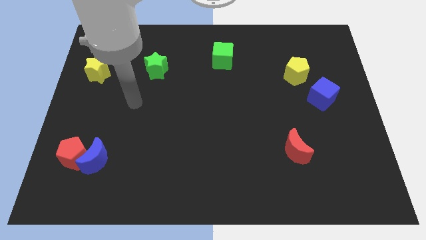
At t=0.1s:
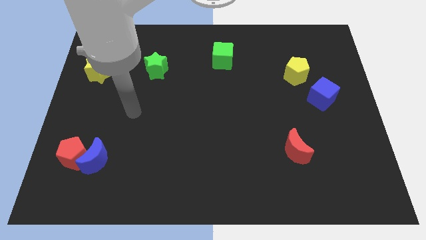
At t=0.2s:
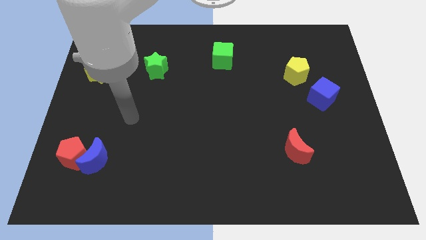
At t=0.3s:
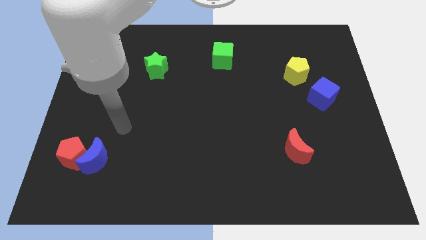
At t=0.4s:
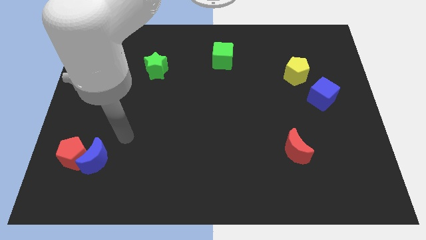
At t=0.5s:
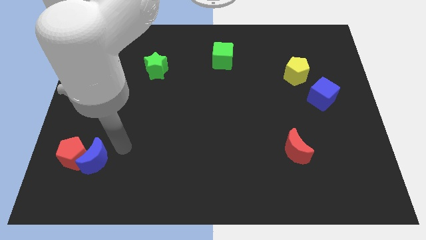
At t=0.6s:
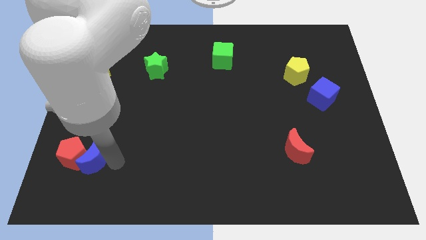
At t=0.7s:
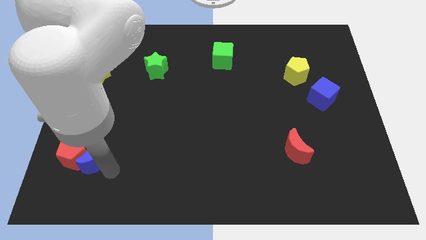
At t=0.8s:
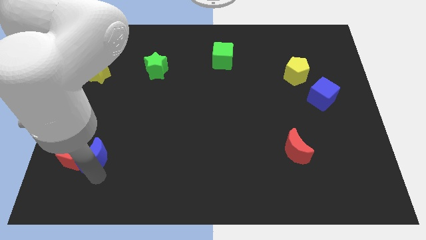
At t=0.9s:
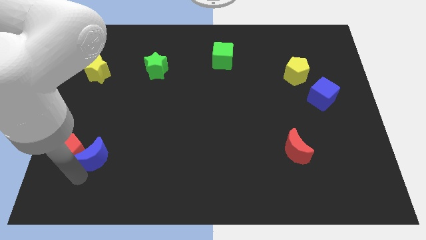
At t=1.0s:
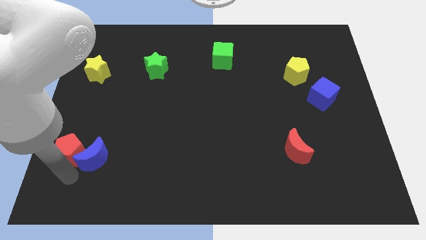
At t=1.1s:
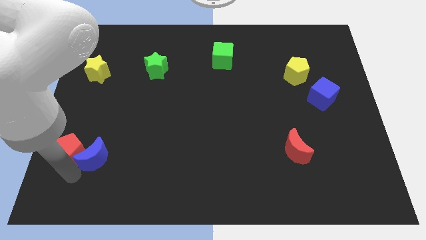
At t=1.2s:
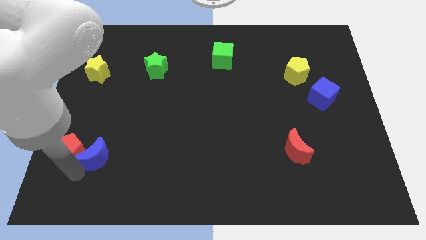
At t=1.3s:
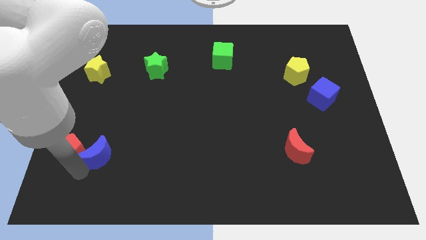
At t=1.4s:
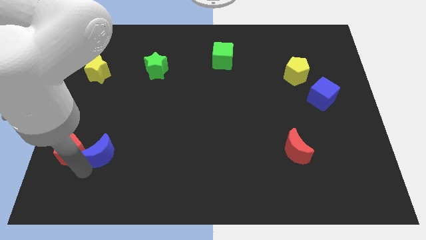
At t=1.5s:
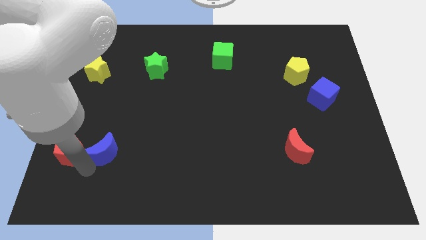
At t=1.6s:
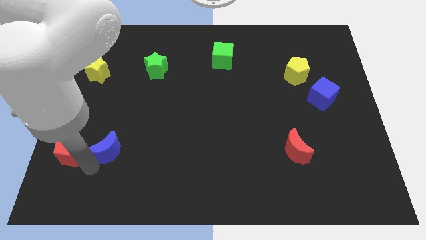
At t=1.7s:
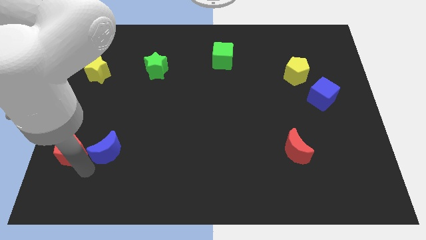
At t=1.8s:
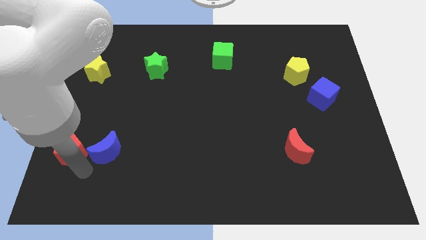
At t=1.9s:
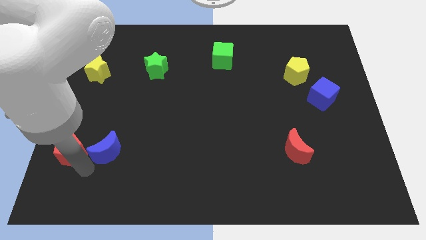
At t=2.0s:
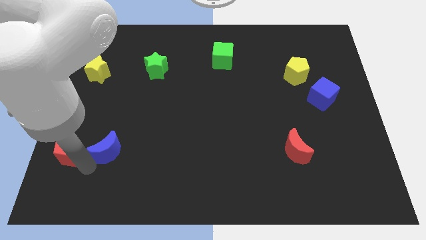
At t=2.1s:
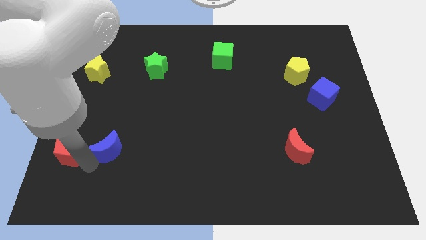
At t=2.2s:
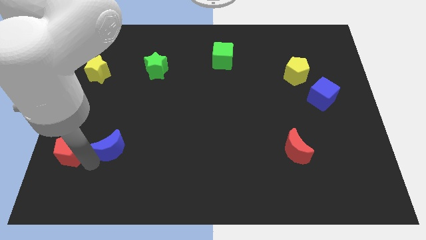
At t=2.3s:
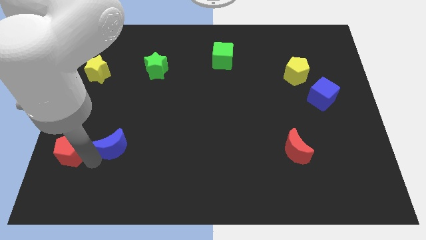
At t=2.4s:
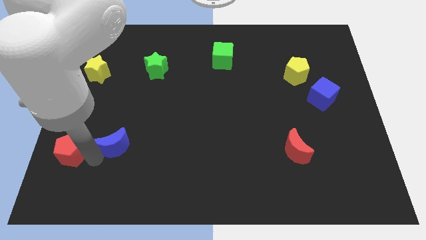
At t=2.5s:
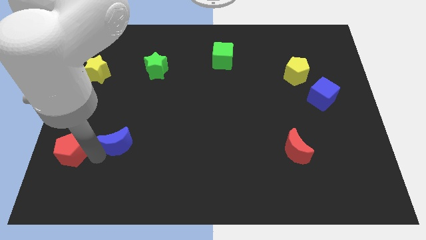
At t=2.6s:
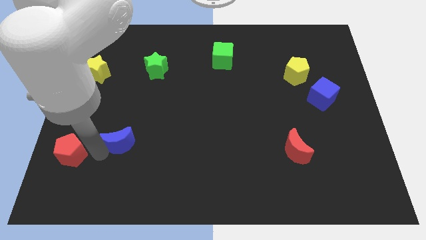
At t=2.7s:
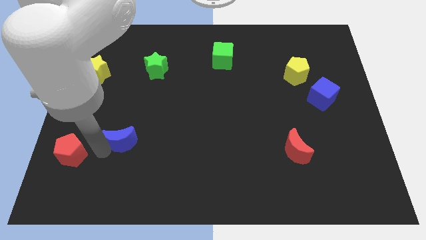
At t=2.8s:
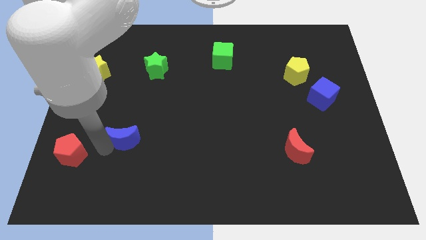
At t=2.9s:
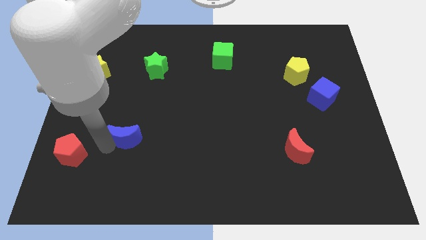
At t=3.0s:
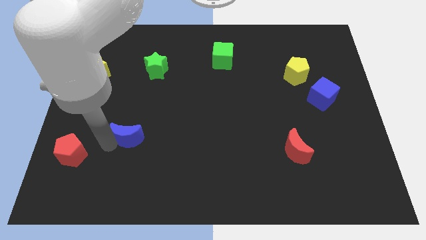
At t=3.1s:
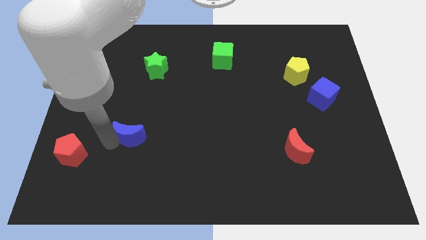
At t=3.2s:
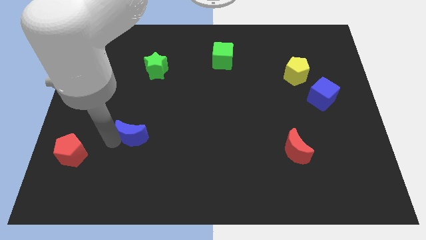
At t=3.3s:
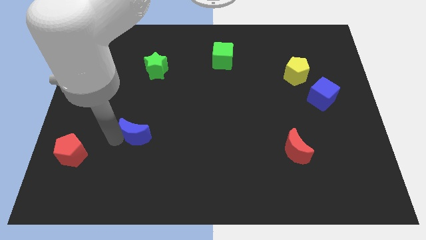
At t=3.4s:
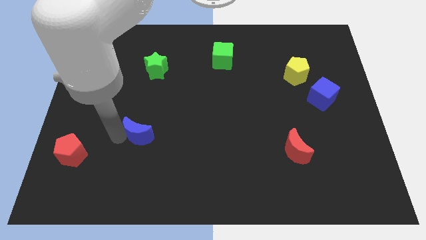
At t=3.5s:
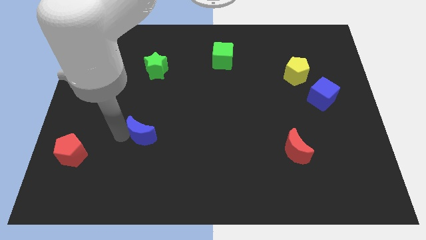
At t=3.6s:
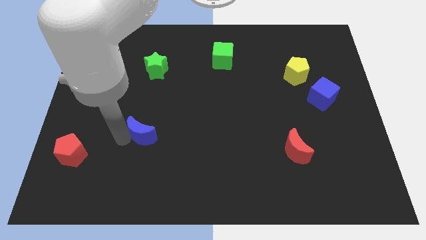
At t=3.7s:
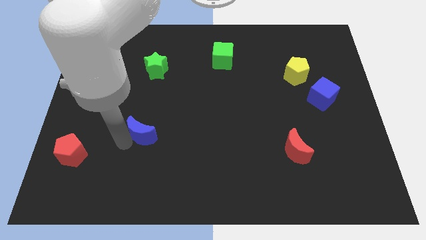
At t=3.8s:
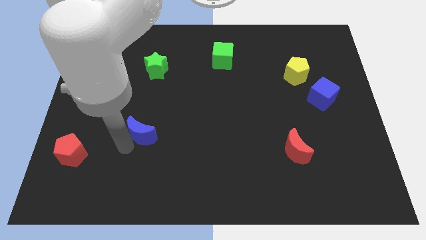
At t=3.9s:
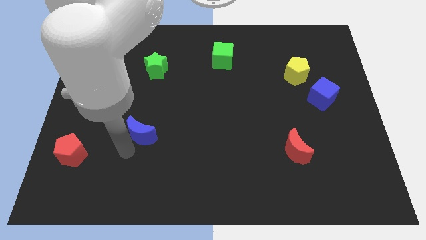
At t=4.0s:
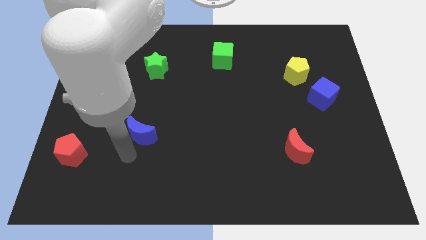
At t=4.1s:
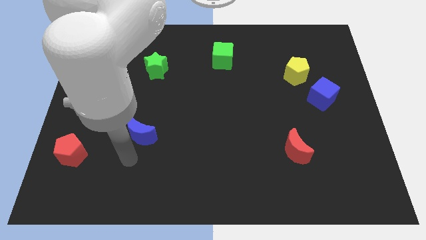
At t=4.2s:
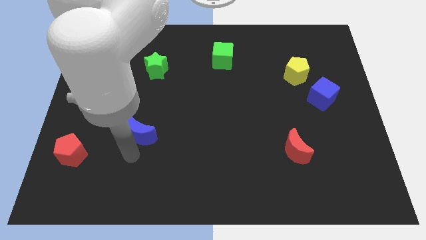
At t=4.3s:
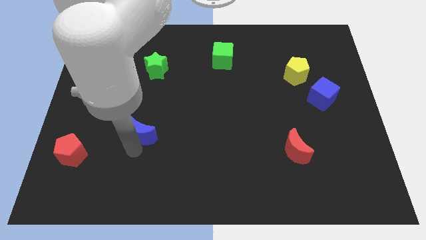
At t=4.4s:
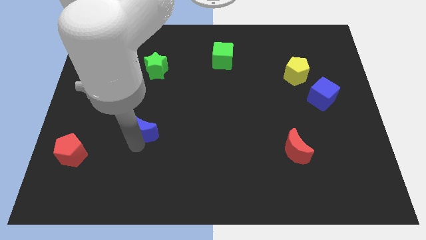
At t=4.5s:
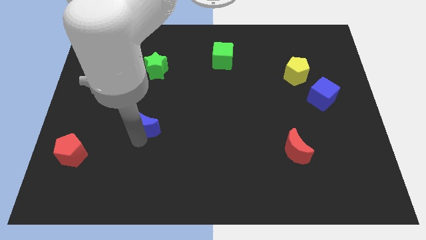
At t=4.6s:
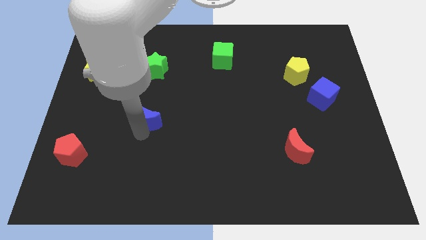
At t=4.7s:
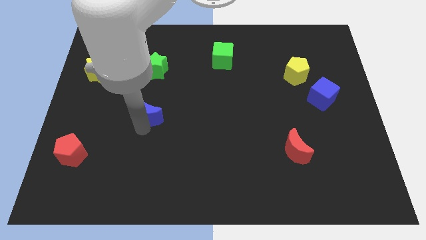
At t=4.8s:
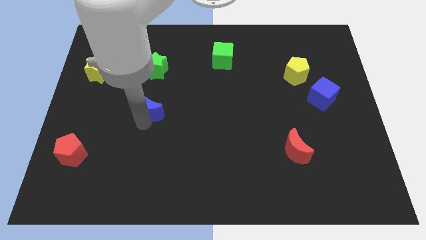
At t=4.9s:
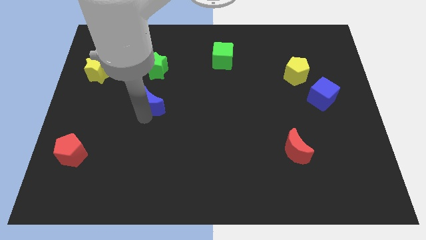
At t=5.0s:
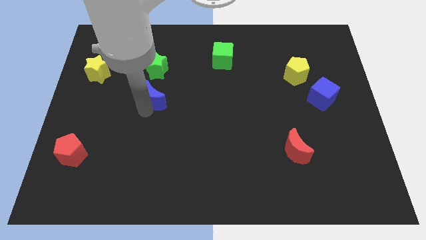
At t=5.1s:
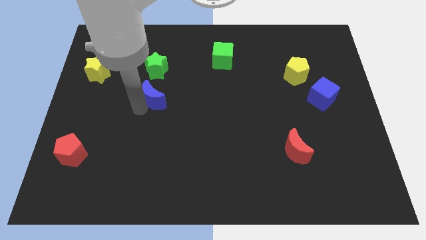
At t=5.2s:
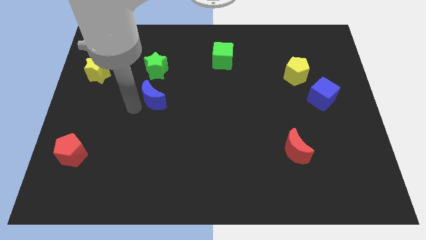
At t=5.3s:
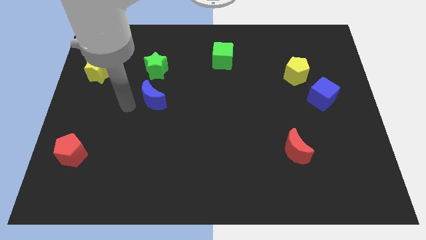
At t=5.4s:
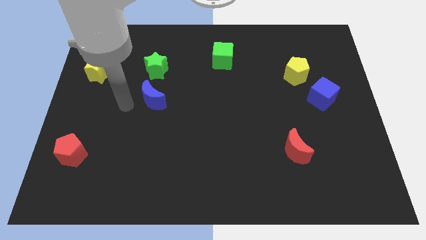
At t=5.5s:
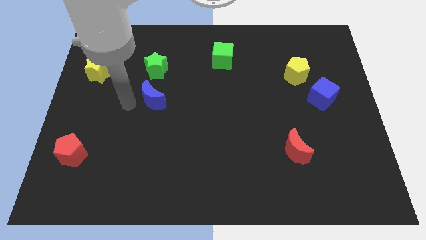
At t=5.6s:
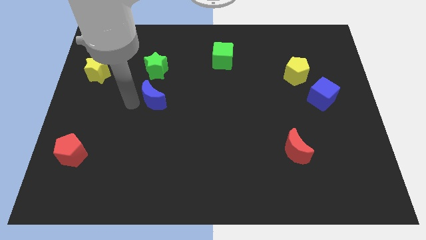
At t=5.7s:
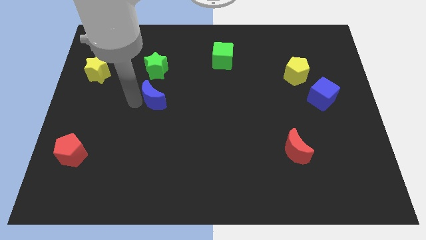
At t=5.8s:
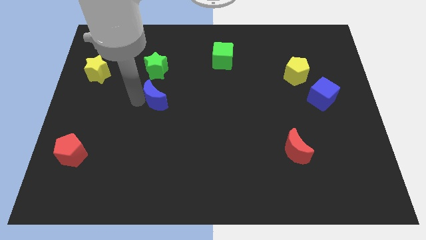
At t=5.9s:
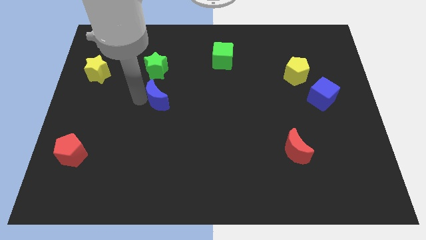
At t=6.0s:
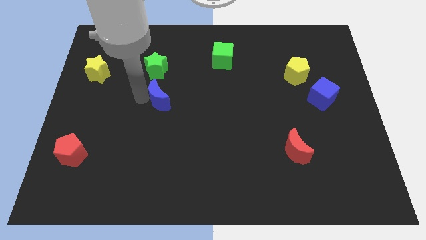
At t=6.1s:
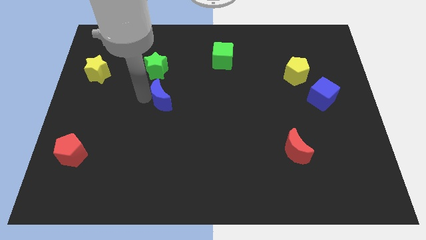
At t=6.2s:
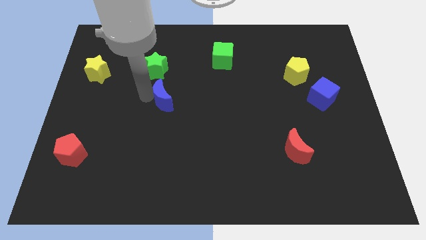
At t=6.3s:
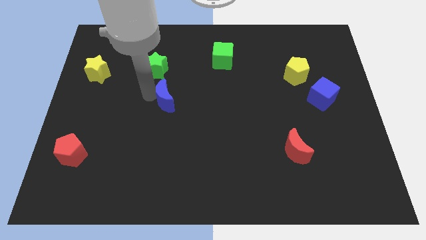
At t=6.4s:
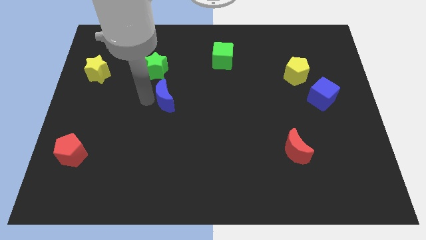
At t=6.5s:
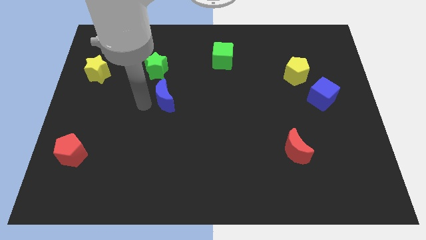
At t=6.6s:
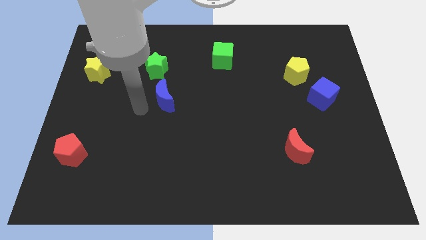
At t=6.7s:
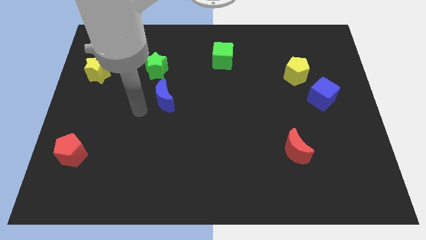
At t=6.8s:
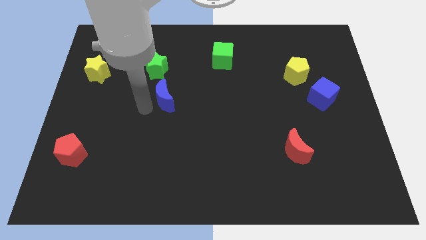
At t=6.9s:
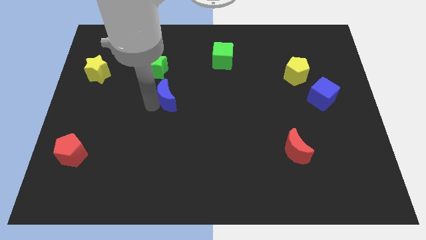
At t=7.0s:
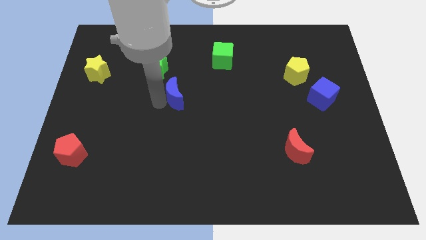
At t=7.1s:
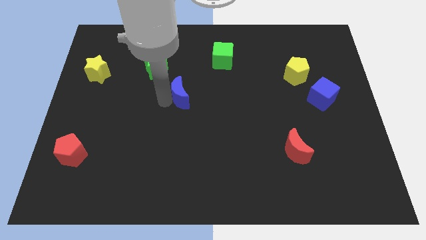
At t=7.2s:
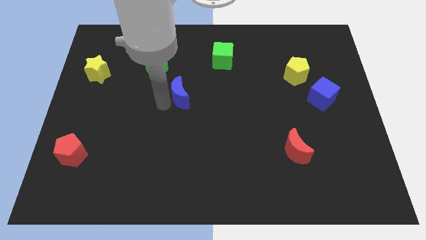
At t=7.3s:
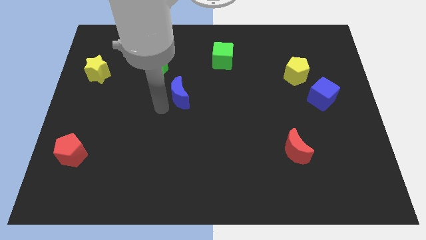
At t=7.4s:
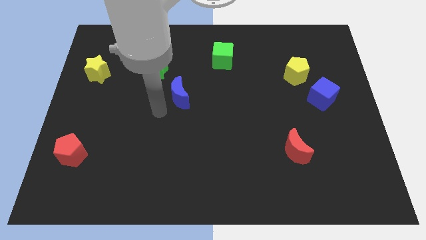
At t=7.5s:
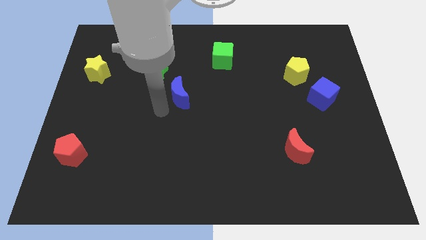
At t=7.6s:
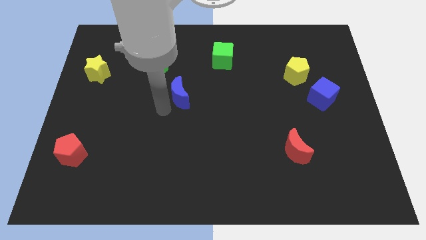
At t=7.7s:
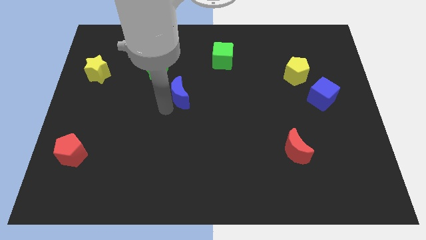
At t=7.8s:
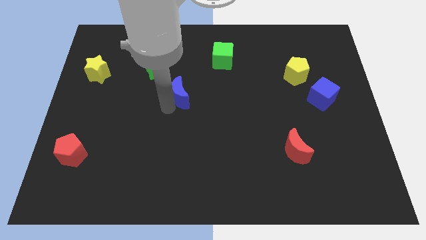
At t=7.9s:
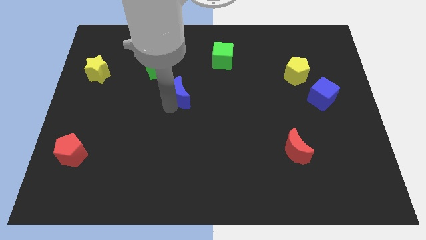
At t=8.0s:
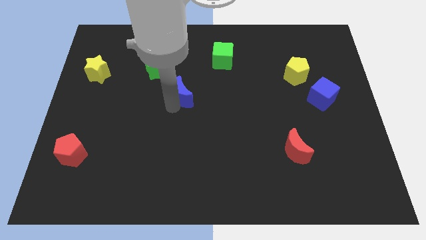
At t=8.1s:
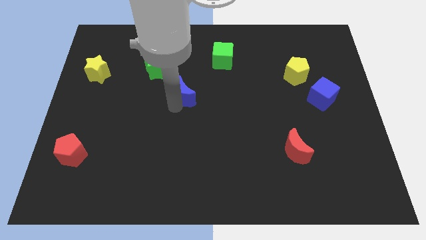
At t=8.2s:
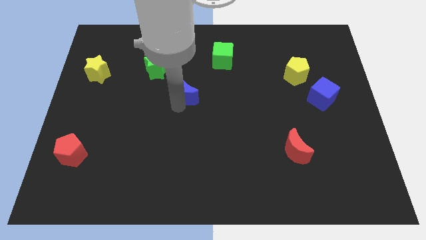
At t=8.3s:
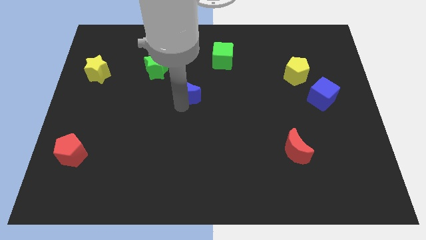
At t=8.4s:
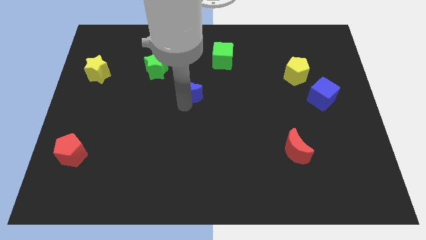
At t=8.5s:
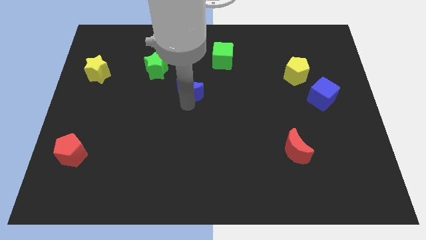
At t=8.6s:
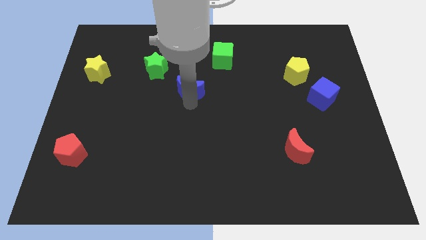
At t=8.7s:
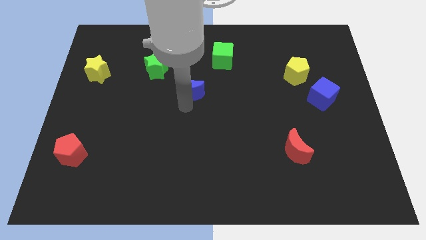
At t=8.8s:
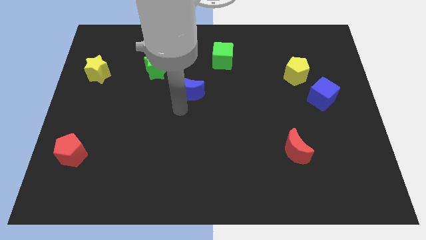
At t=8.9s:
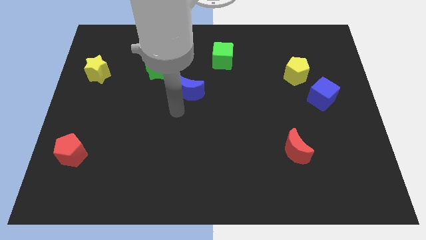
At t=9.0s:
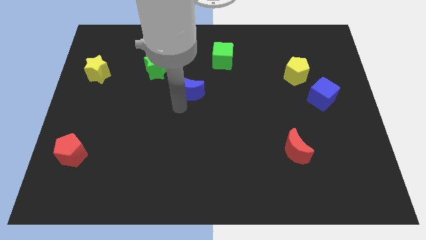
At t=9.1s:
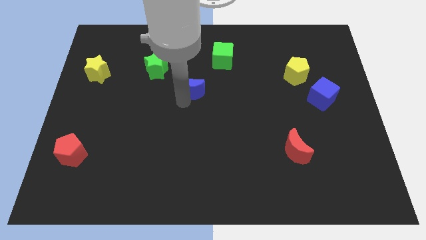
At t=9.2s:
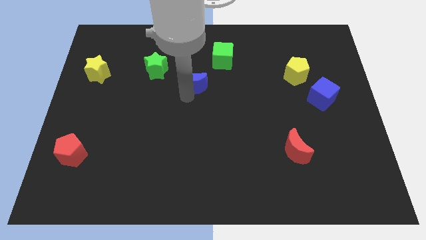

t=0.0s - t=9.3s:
put the blue moon to the bottom left of the green cube
